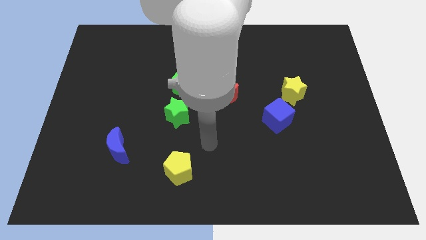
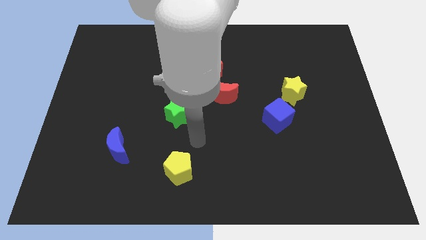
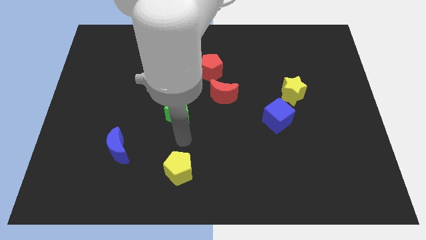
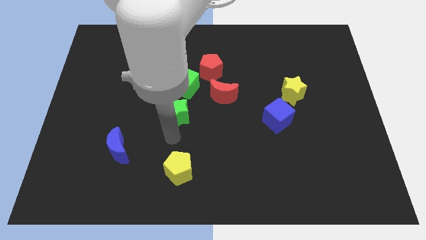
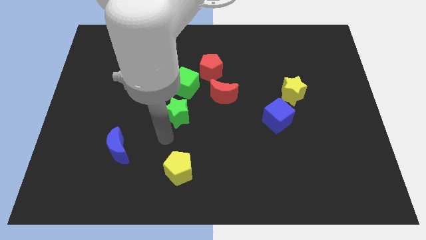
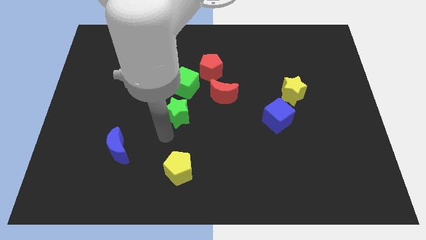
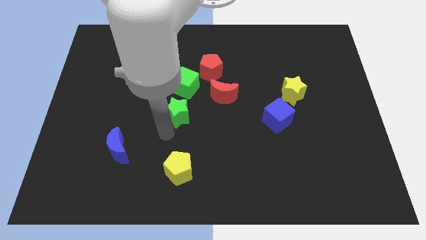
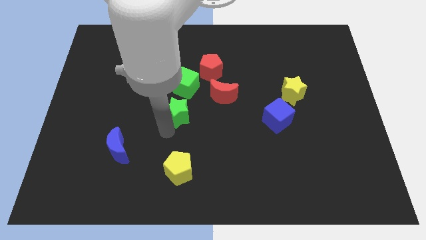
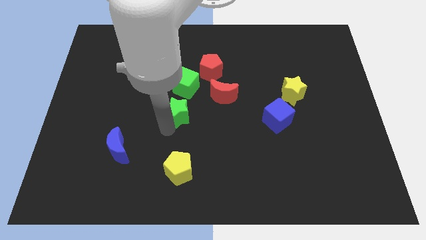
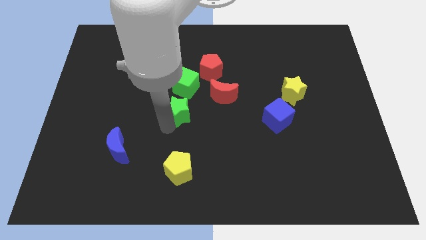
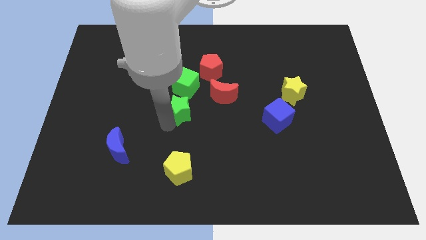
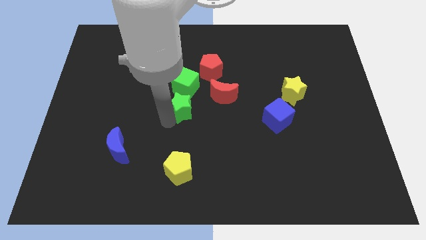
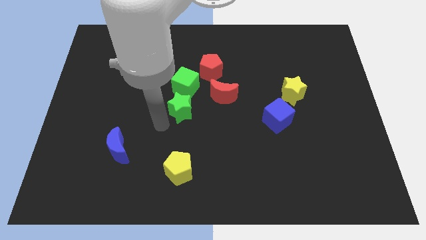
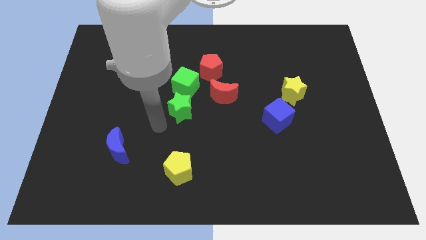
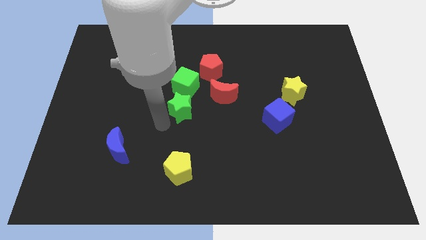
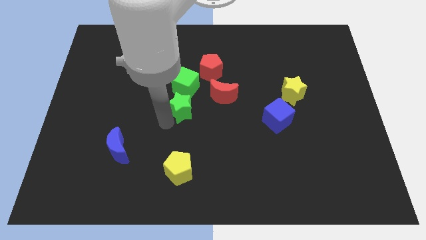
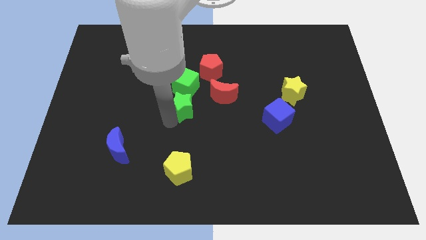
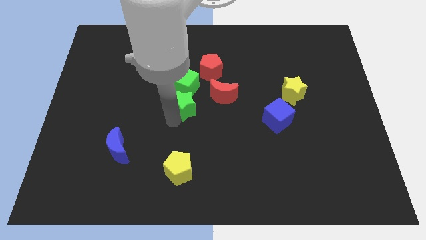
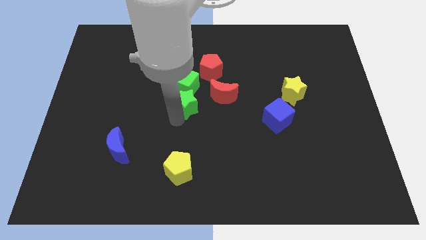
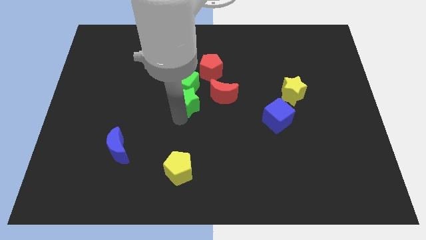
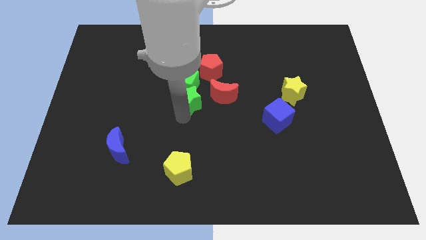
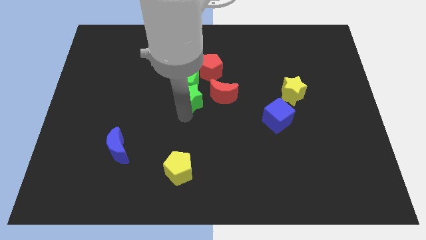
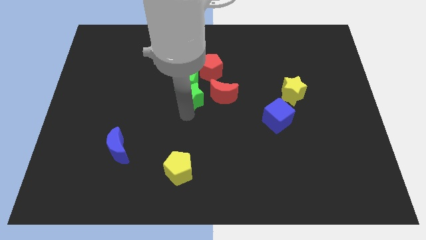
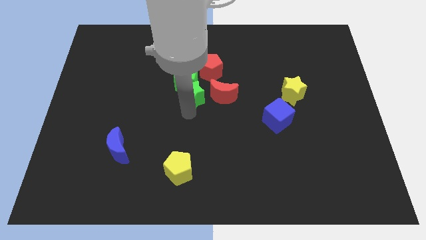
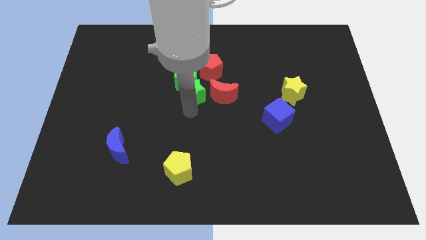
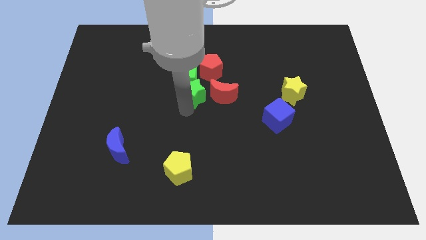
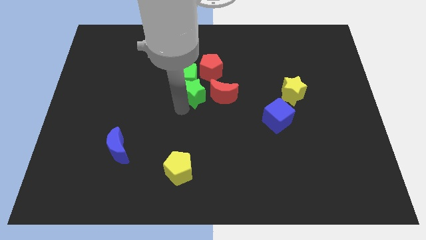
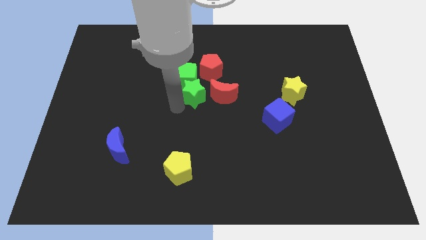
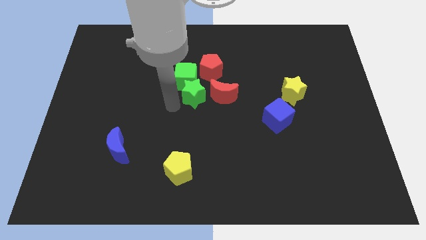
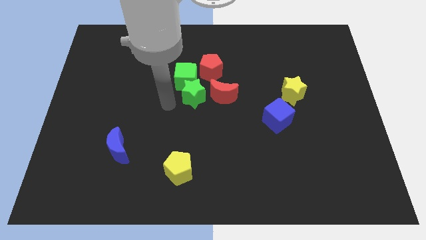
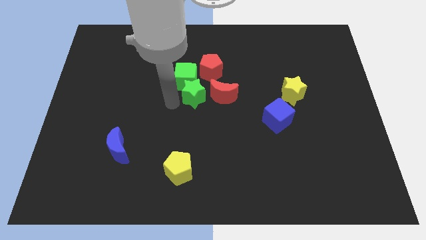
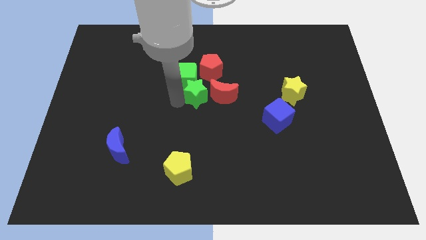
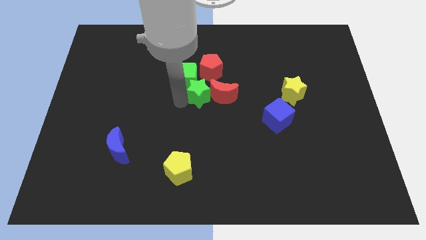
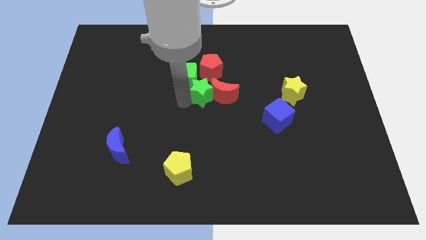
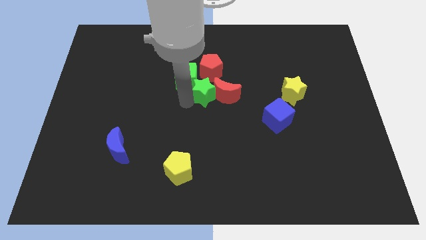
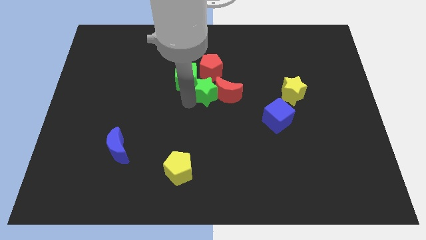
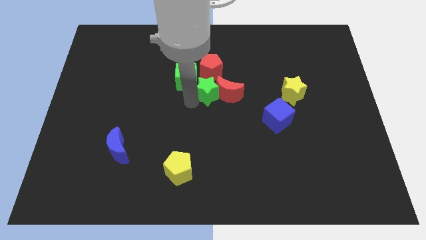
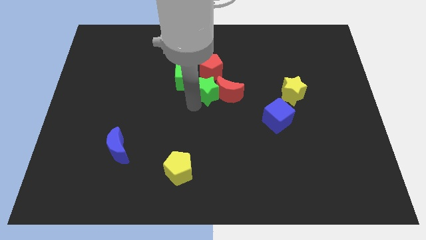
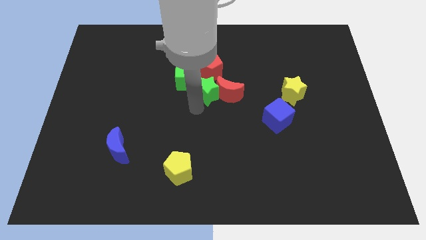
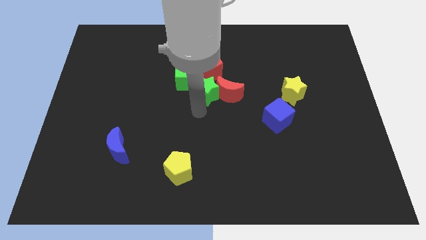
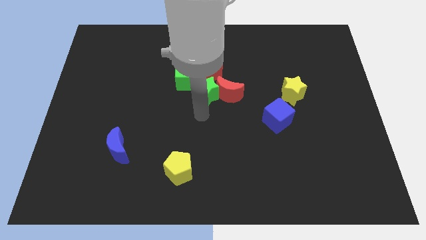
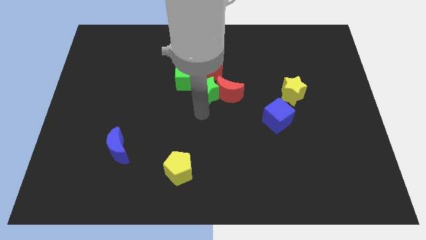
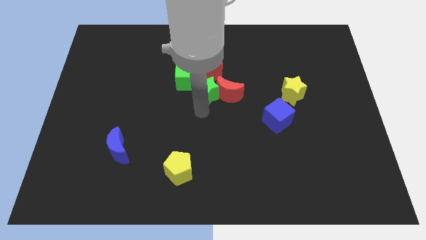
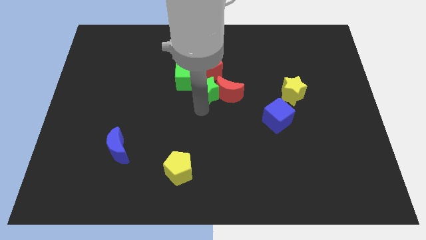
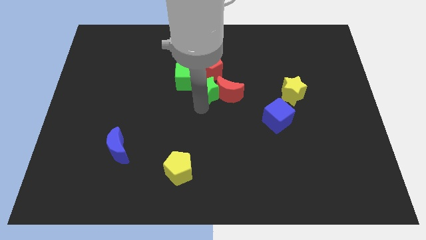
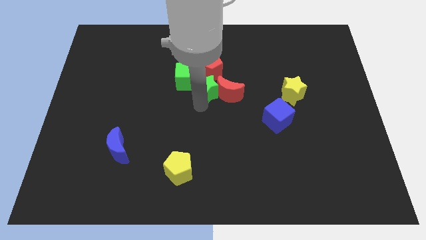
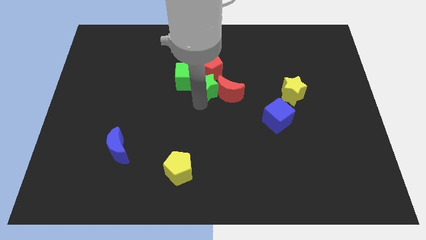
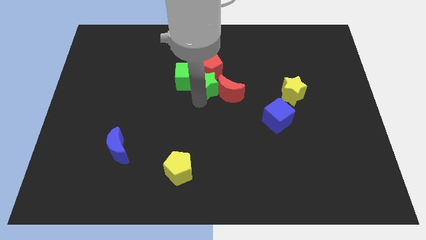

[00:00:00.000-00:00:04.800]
push the green star to the red pentagon

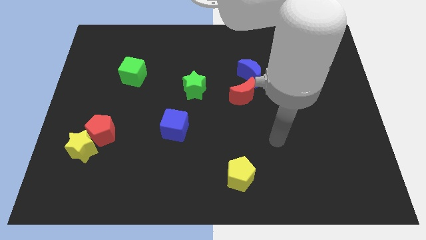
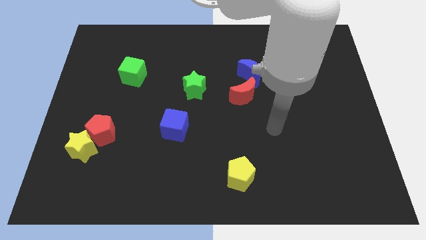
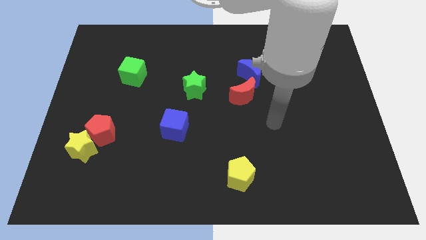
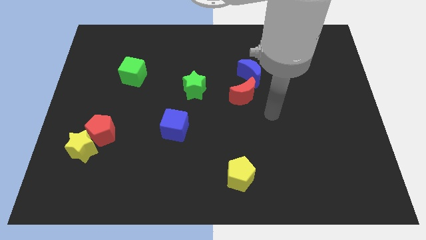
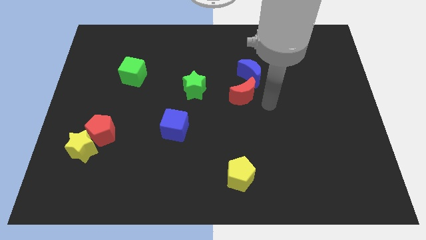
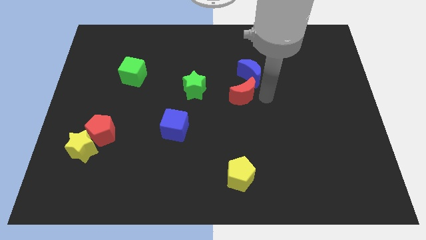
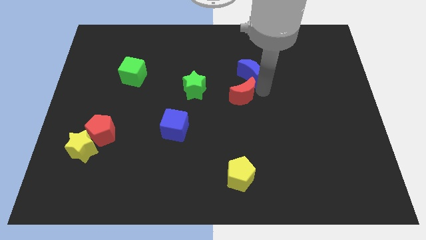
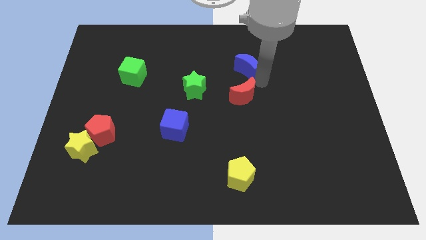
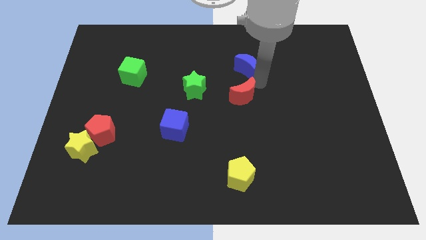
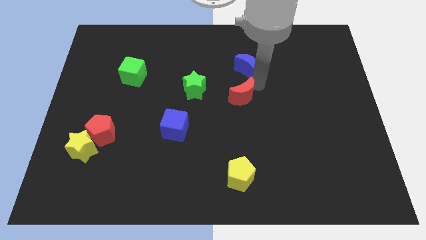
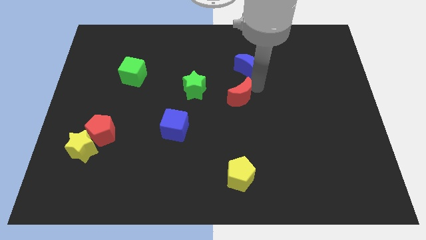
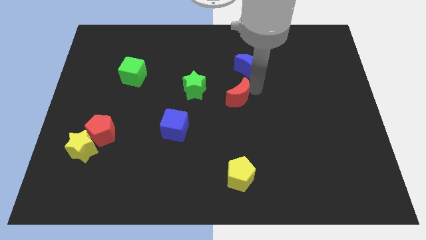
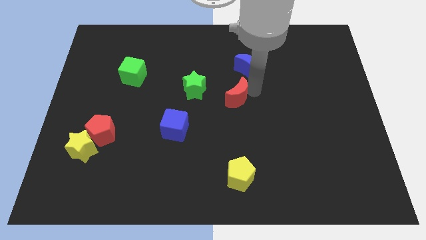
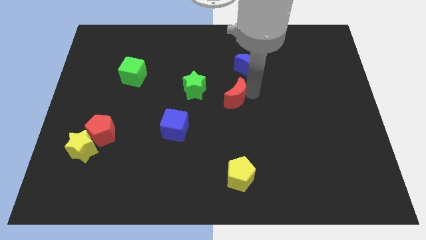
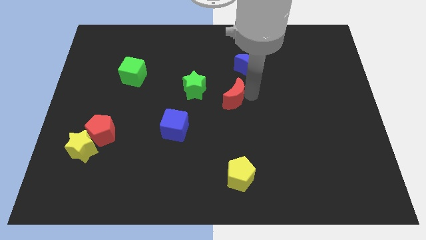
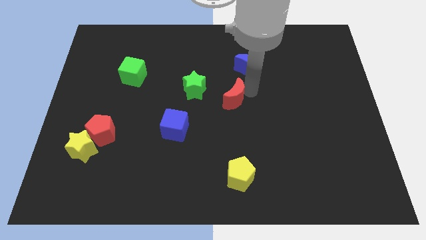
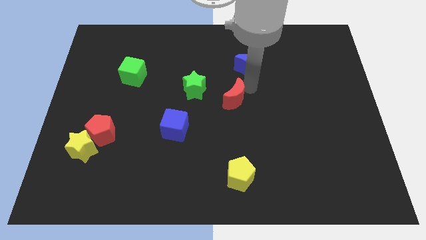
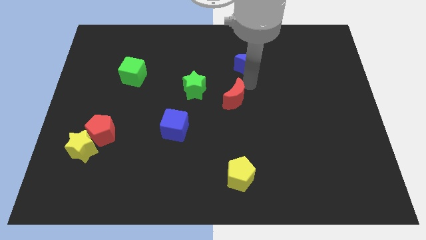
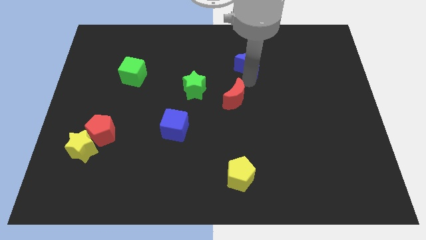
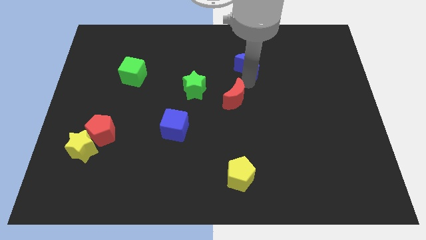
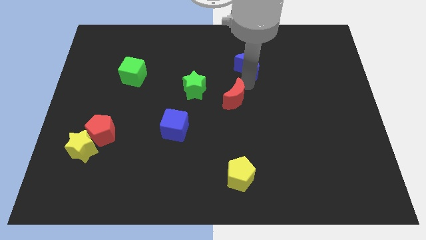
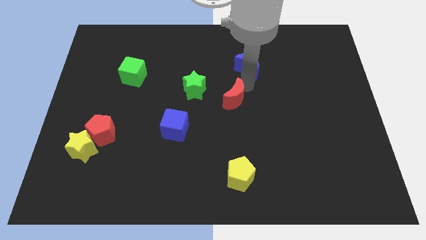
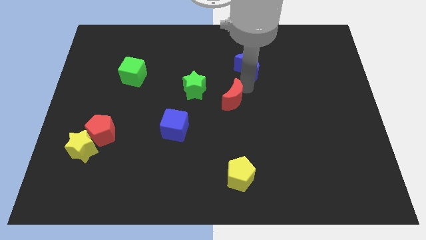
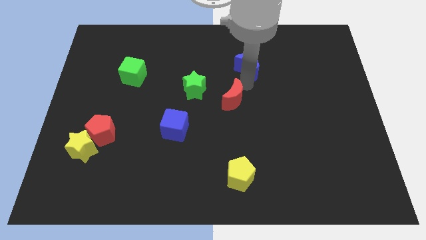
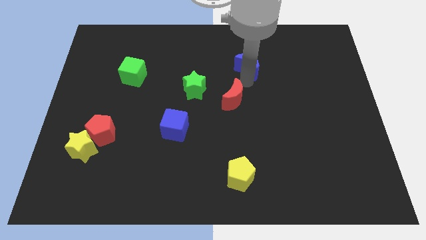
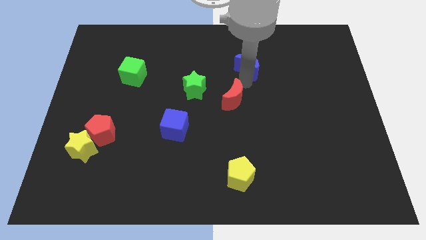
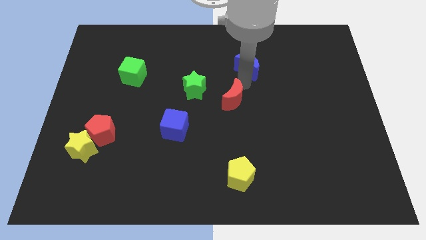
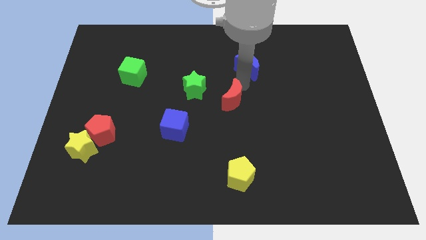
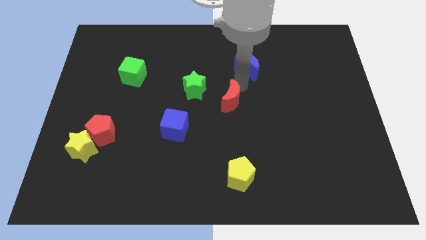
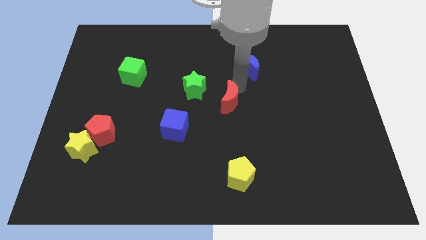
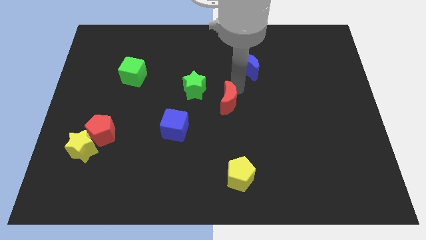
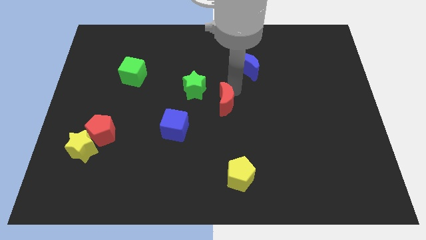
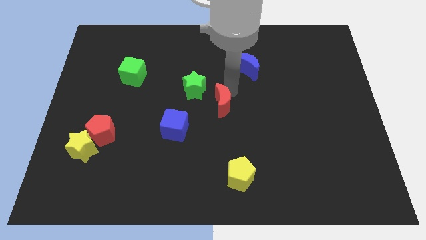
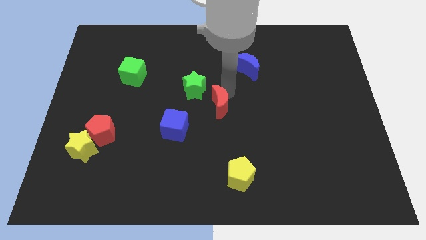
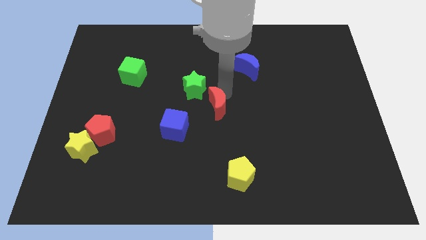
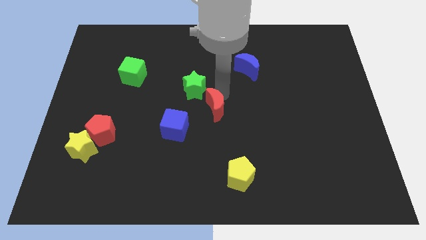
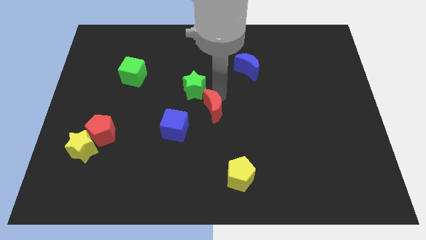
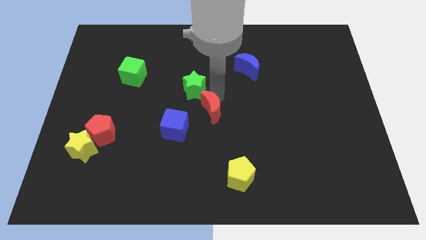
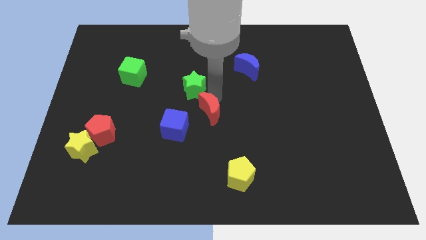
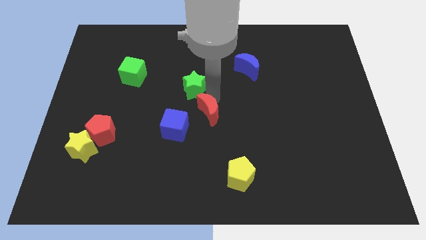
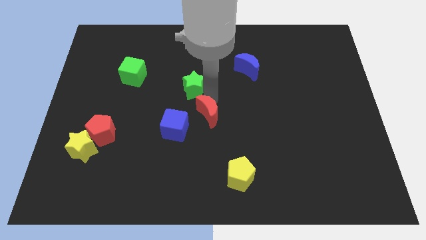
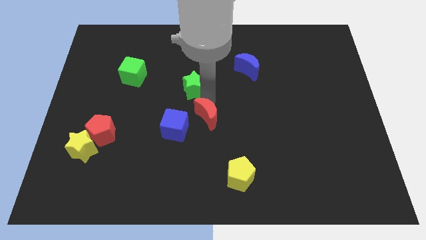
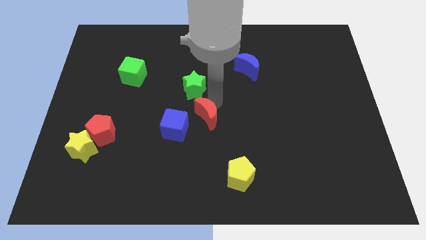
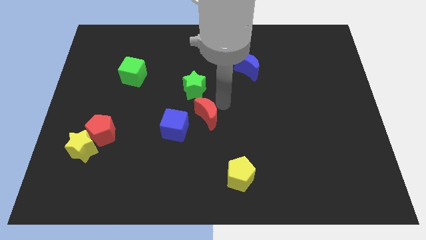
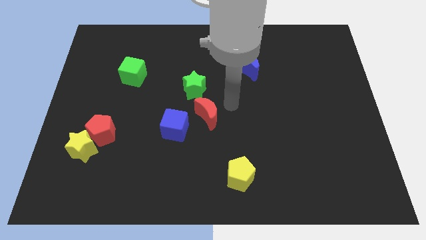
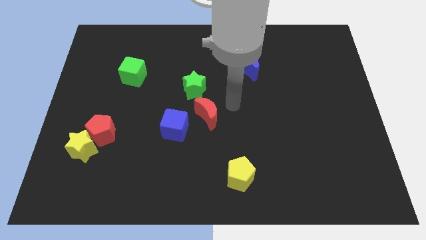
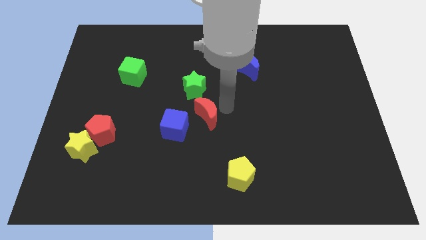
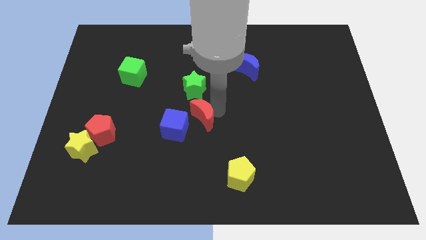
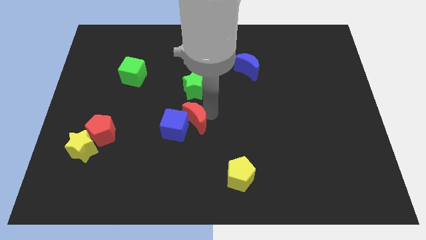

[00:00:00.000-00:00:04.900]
move the red moon next to the blue cube
